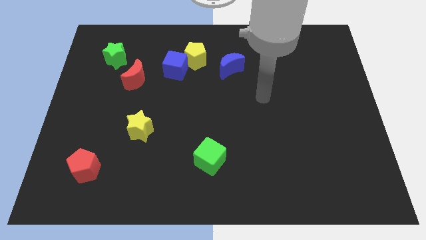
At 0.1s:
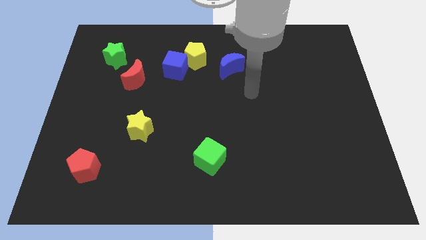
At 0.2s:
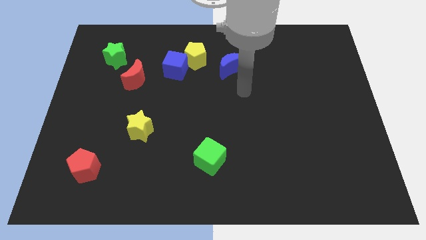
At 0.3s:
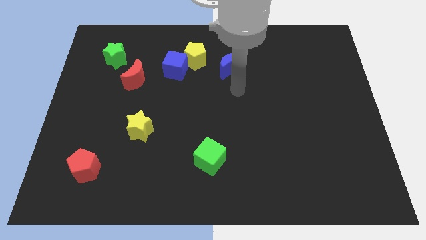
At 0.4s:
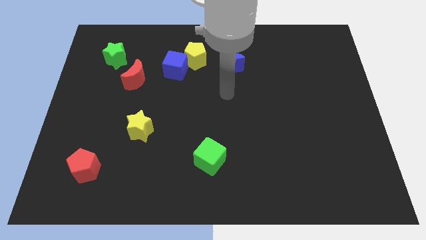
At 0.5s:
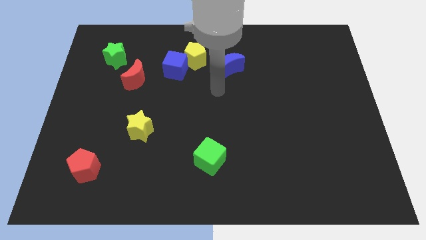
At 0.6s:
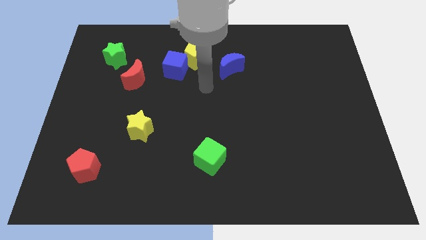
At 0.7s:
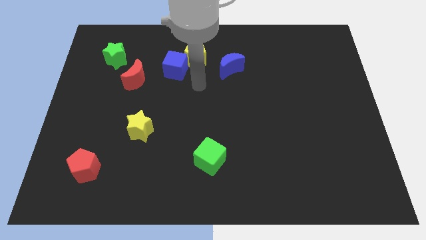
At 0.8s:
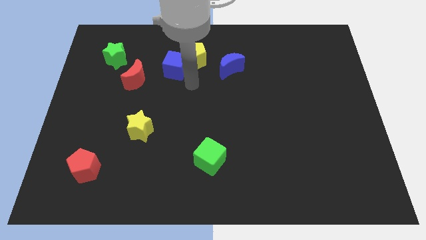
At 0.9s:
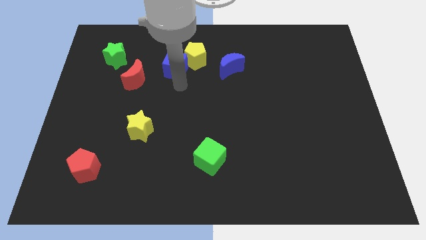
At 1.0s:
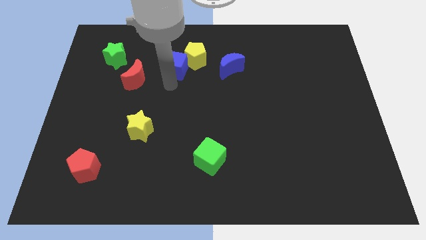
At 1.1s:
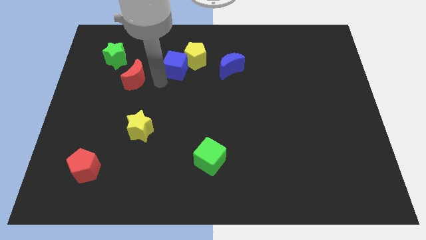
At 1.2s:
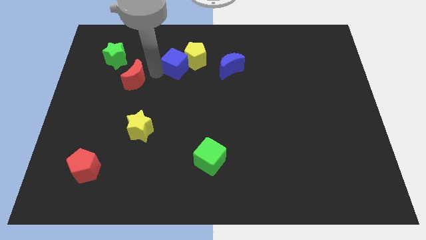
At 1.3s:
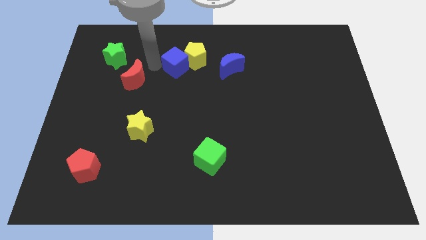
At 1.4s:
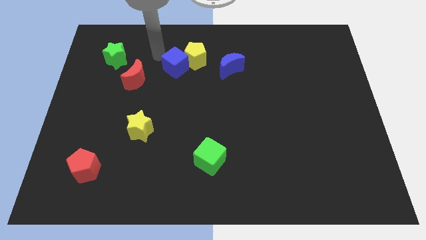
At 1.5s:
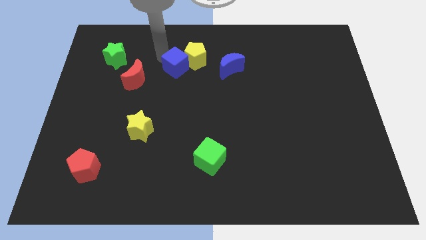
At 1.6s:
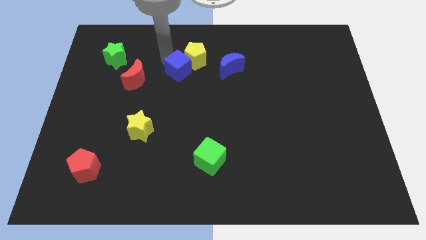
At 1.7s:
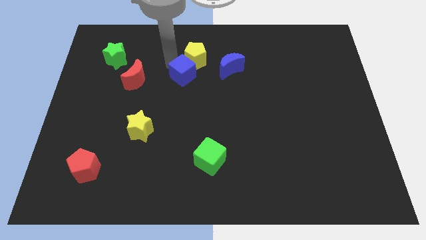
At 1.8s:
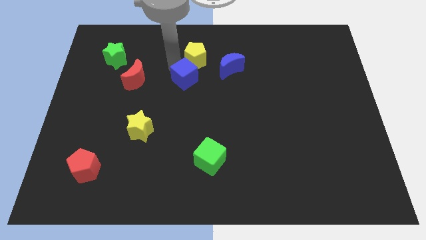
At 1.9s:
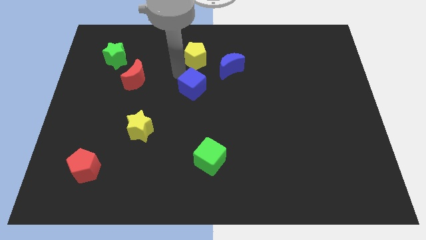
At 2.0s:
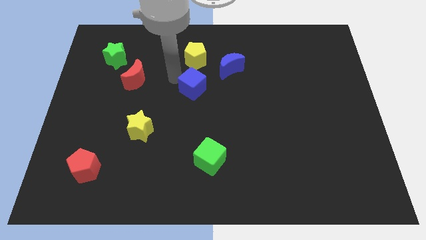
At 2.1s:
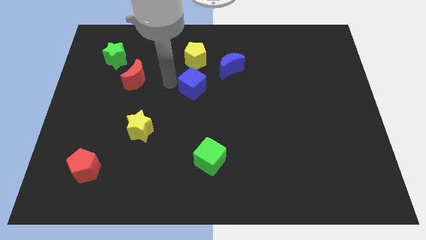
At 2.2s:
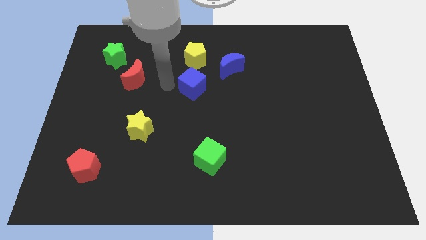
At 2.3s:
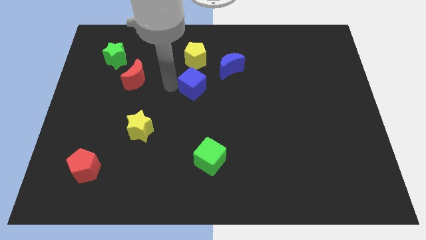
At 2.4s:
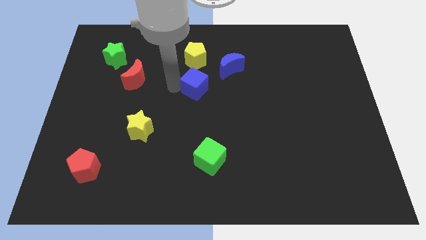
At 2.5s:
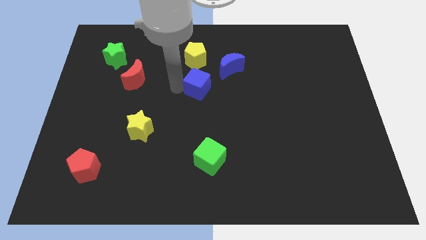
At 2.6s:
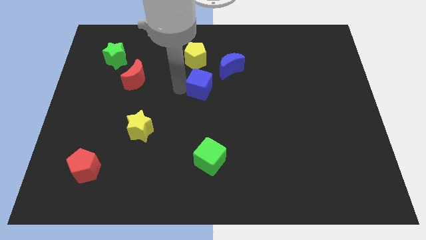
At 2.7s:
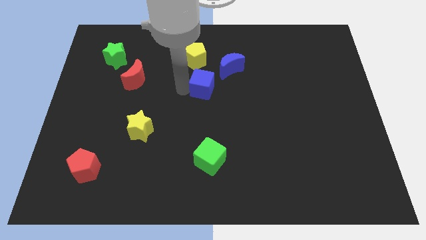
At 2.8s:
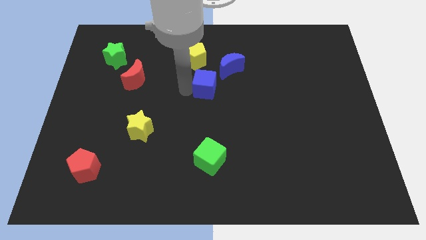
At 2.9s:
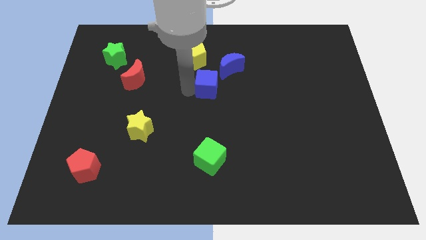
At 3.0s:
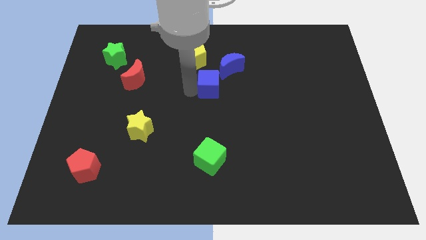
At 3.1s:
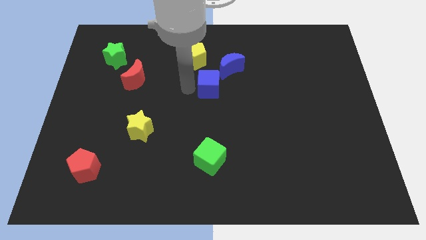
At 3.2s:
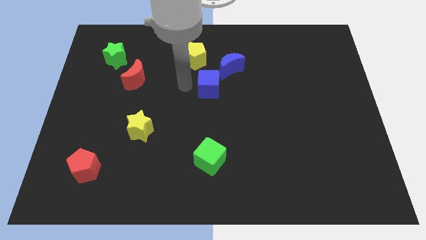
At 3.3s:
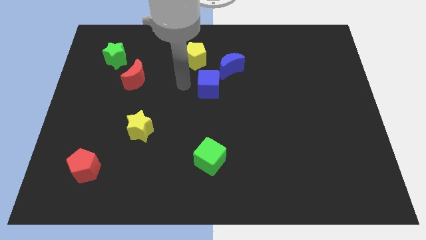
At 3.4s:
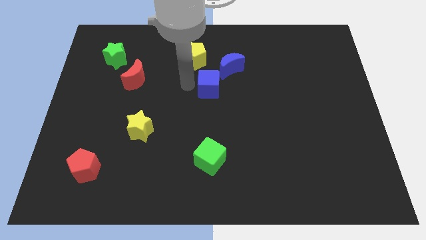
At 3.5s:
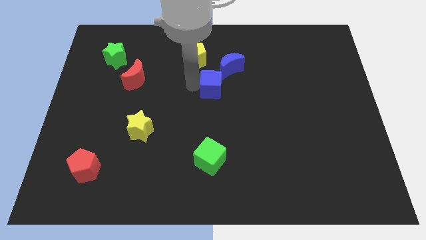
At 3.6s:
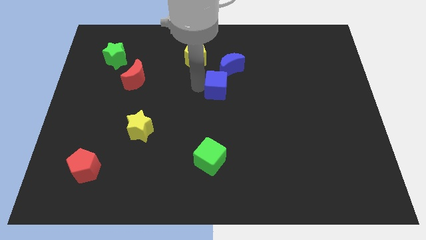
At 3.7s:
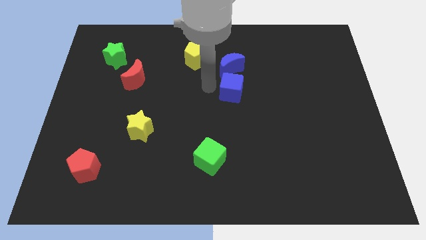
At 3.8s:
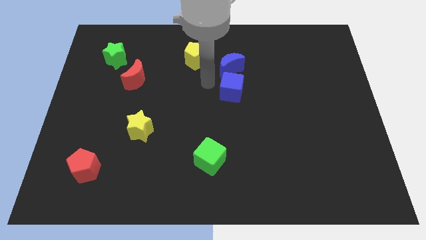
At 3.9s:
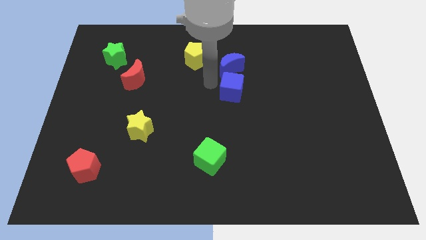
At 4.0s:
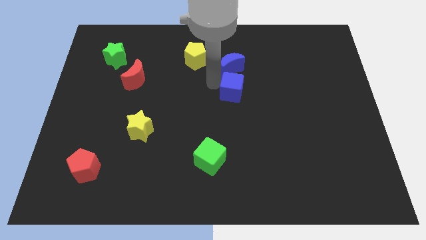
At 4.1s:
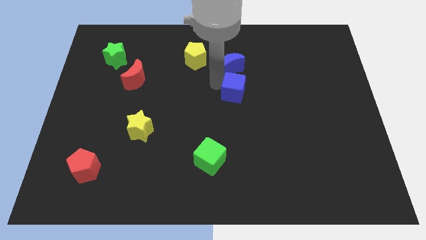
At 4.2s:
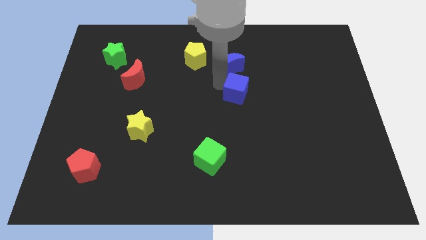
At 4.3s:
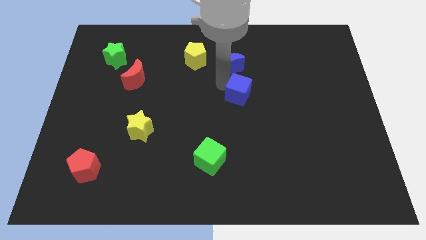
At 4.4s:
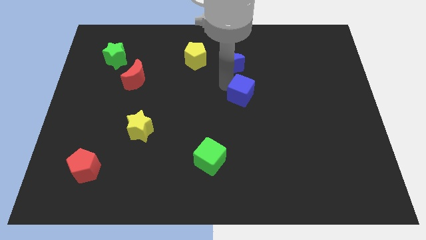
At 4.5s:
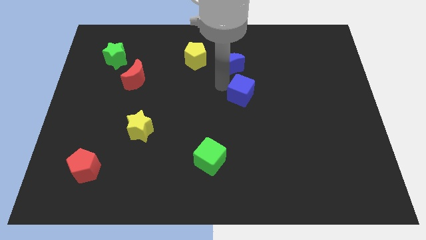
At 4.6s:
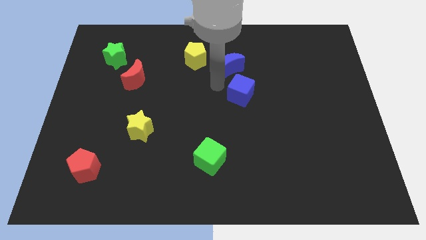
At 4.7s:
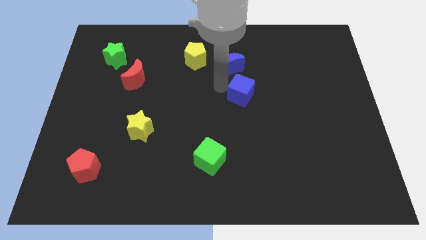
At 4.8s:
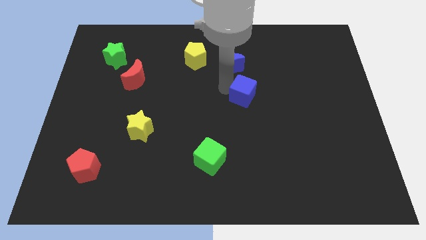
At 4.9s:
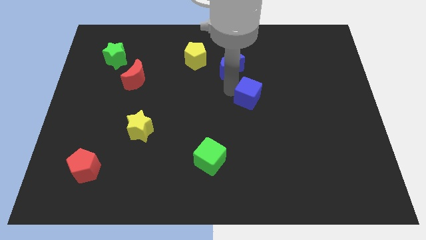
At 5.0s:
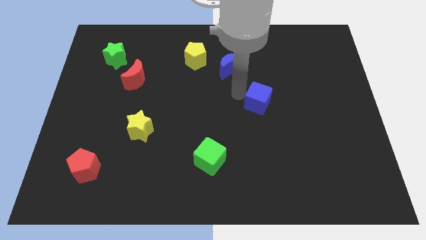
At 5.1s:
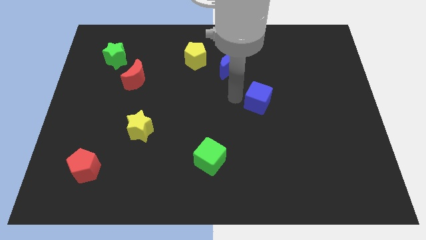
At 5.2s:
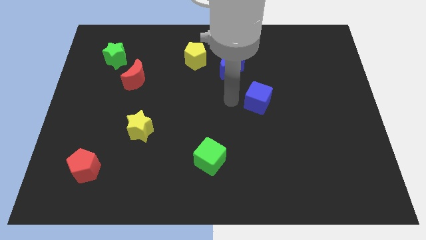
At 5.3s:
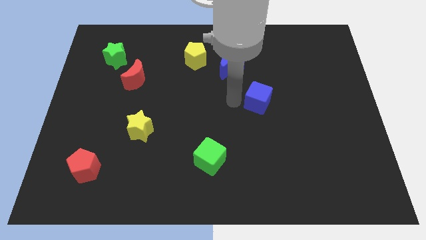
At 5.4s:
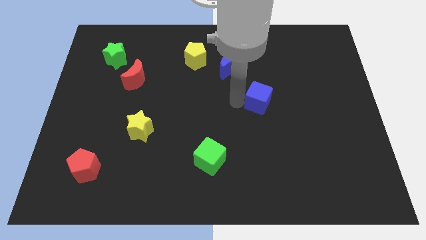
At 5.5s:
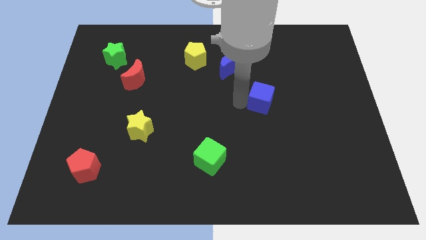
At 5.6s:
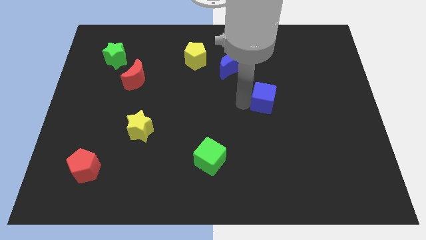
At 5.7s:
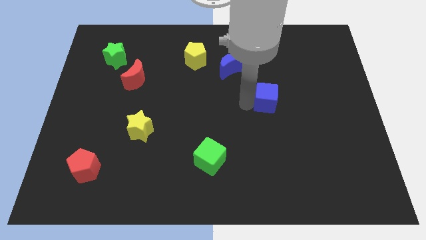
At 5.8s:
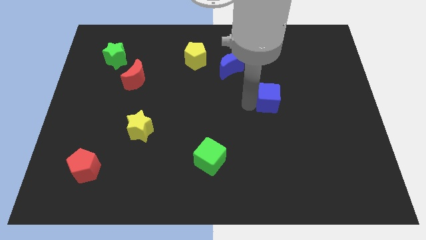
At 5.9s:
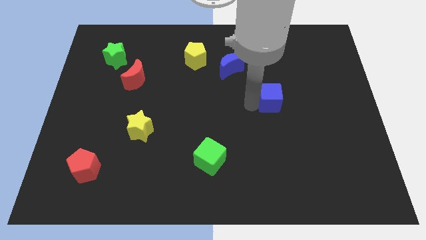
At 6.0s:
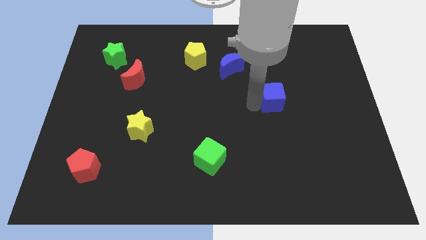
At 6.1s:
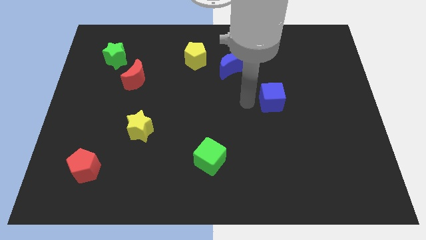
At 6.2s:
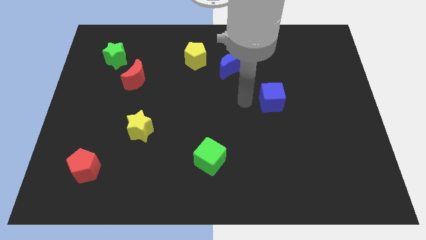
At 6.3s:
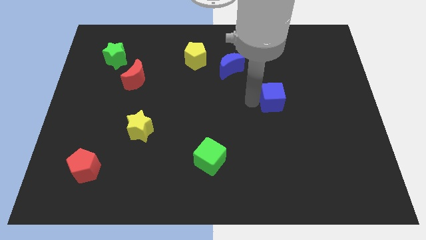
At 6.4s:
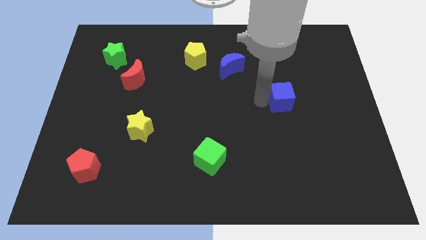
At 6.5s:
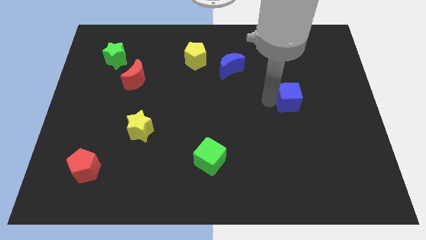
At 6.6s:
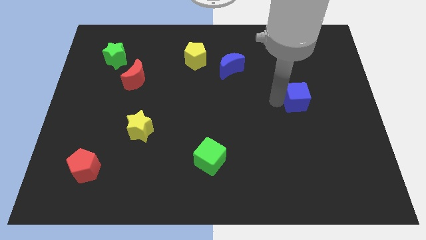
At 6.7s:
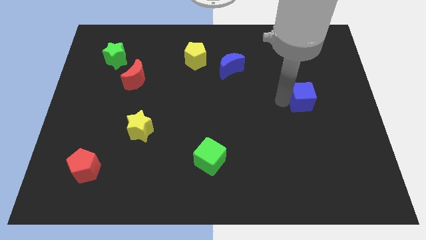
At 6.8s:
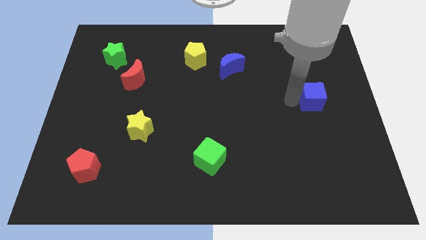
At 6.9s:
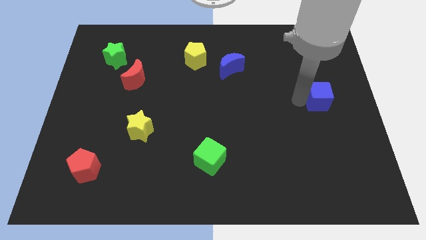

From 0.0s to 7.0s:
move the blue cube to the right side
